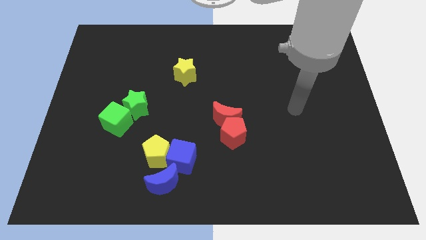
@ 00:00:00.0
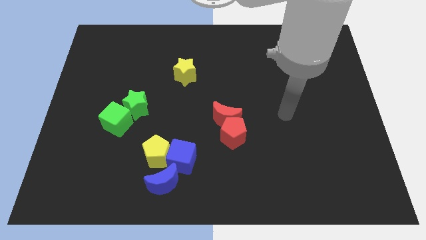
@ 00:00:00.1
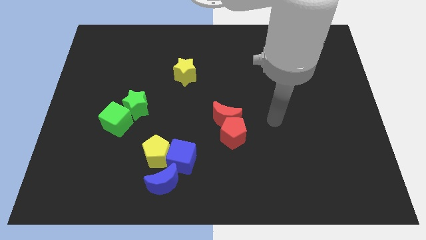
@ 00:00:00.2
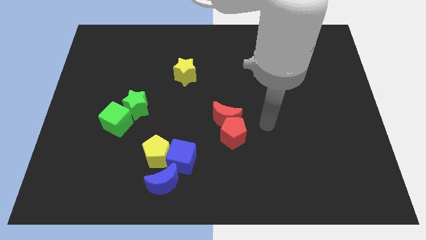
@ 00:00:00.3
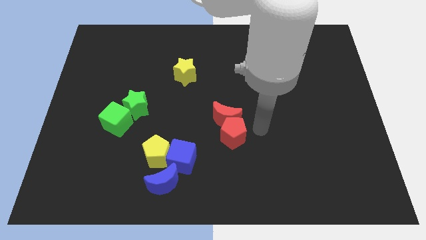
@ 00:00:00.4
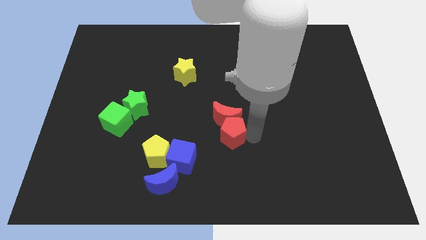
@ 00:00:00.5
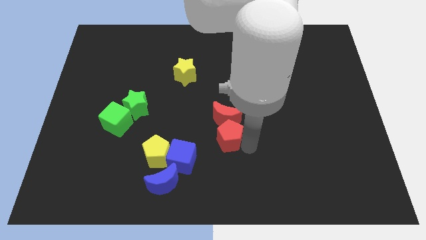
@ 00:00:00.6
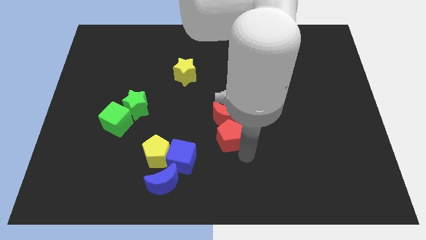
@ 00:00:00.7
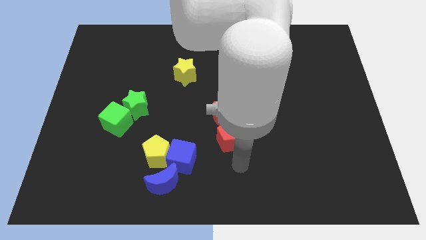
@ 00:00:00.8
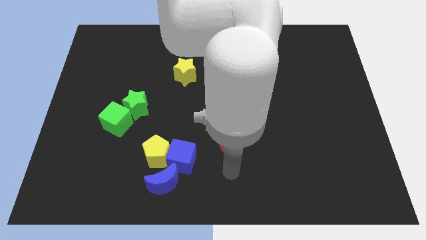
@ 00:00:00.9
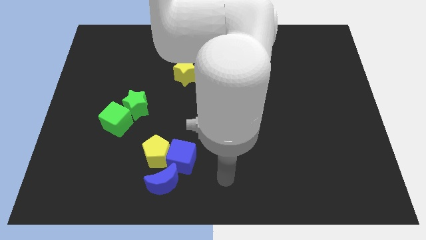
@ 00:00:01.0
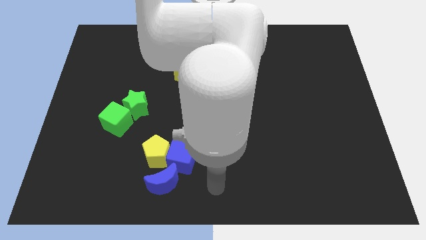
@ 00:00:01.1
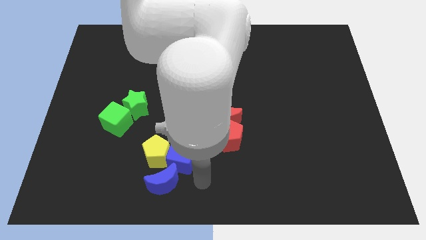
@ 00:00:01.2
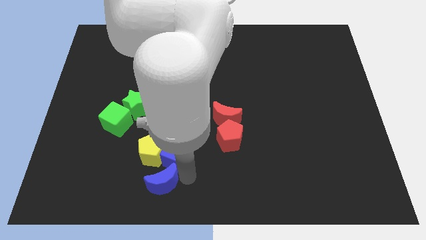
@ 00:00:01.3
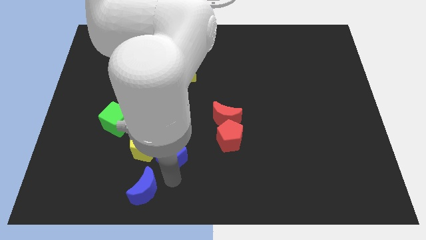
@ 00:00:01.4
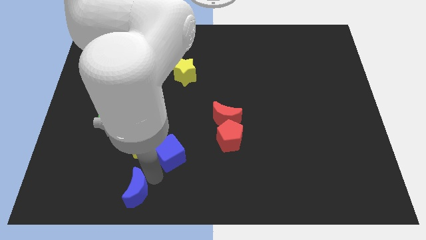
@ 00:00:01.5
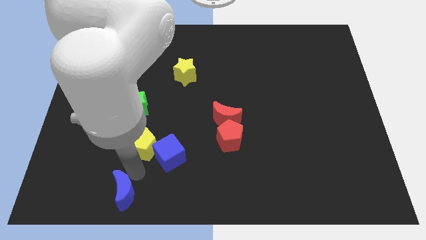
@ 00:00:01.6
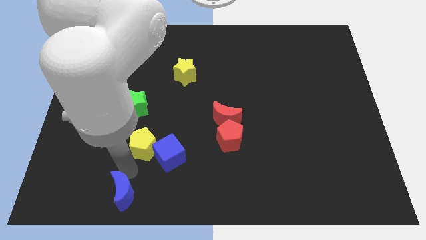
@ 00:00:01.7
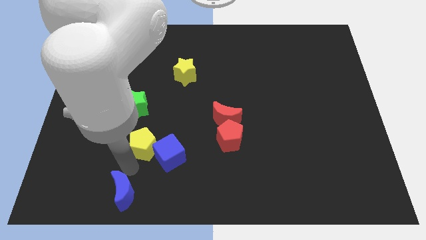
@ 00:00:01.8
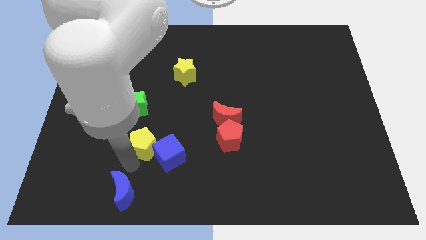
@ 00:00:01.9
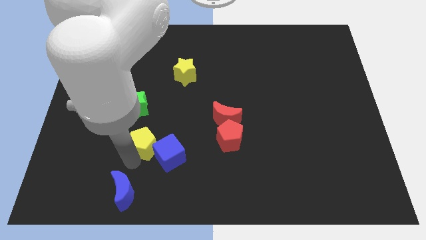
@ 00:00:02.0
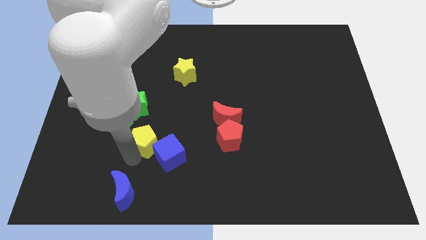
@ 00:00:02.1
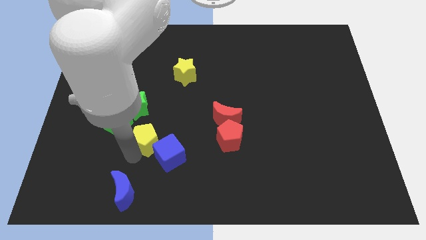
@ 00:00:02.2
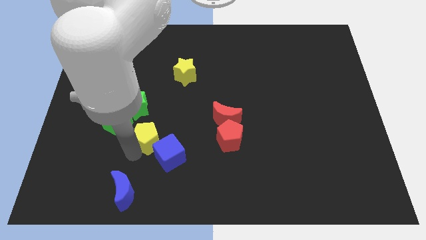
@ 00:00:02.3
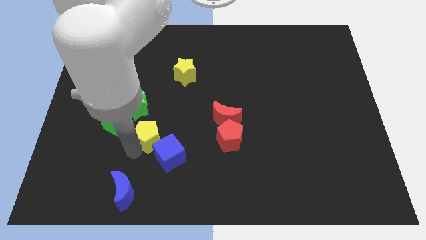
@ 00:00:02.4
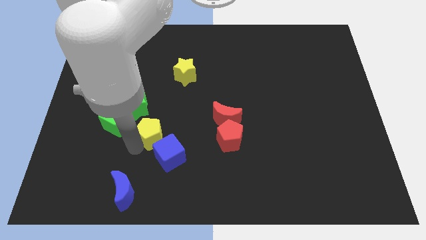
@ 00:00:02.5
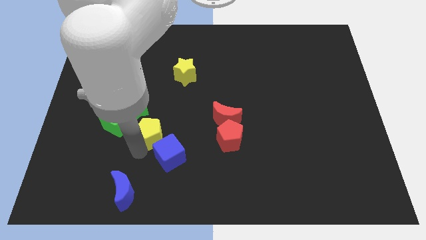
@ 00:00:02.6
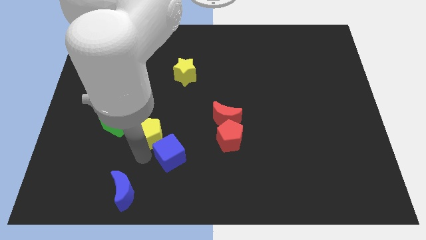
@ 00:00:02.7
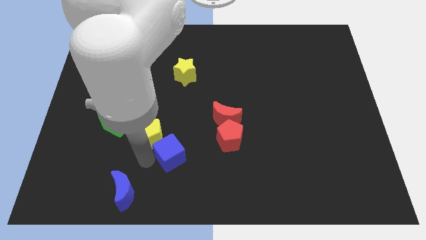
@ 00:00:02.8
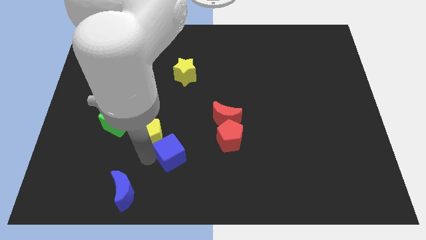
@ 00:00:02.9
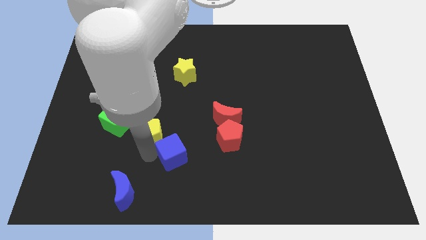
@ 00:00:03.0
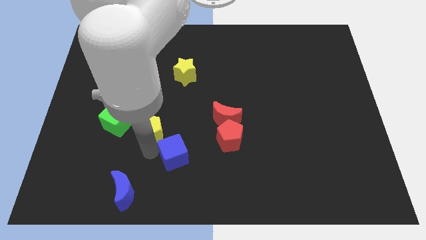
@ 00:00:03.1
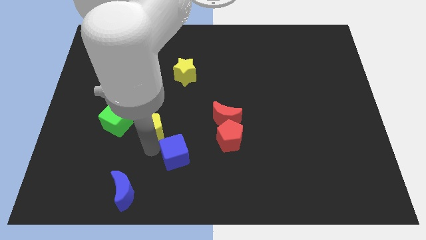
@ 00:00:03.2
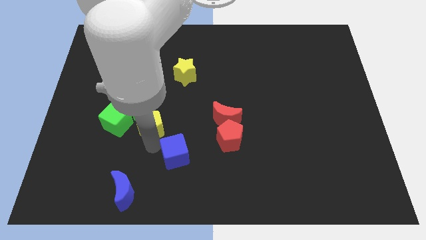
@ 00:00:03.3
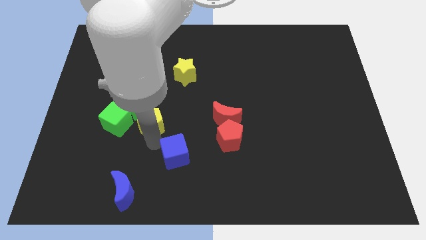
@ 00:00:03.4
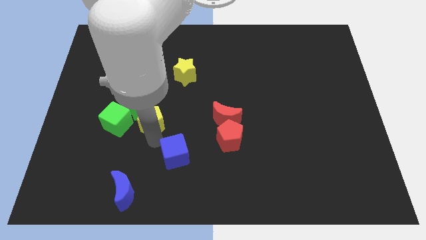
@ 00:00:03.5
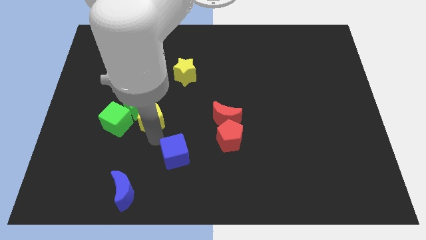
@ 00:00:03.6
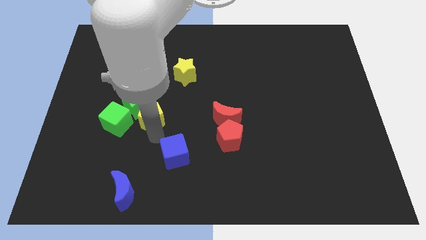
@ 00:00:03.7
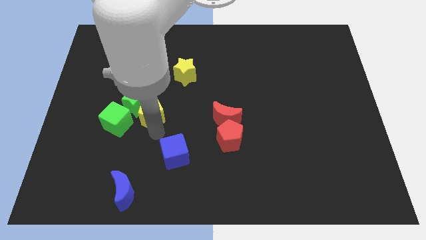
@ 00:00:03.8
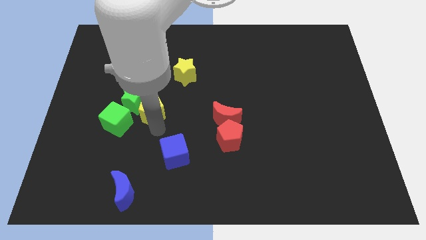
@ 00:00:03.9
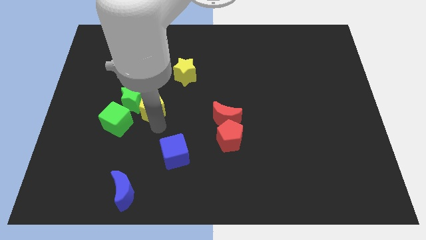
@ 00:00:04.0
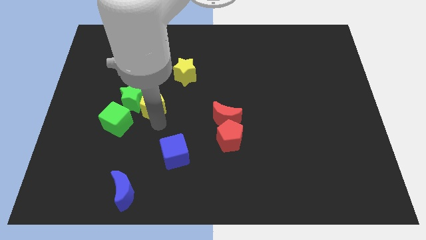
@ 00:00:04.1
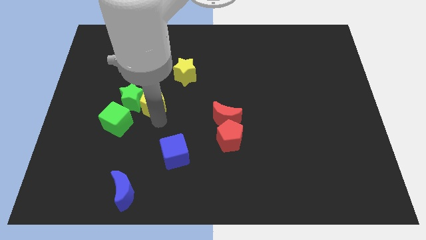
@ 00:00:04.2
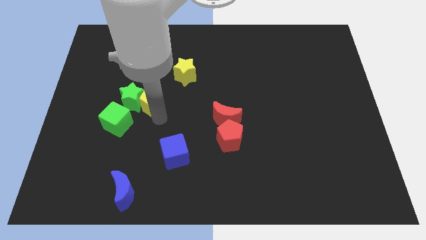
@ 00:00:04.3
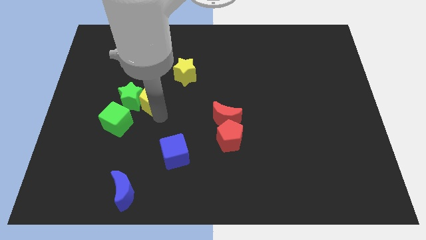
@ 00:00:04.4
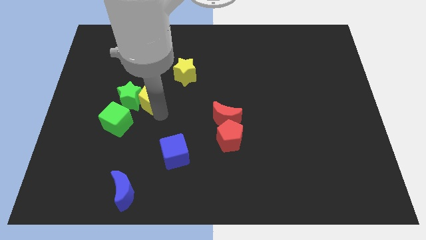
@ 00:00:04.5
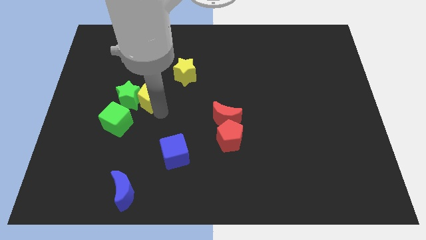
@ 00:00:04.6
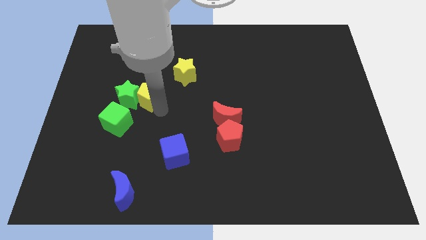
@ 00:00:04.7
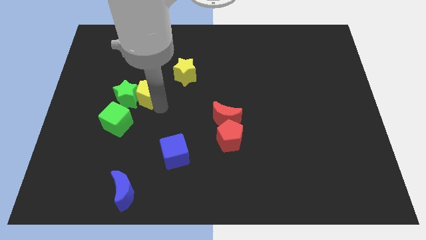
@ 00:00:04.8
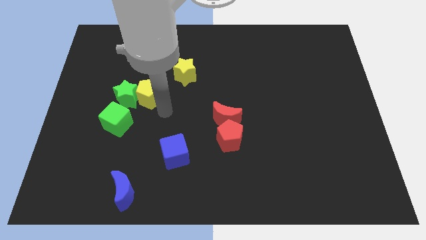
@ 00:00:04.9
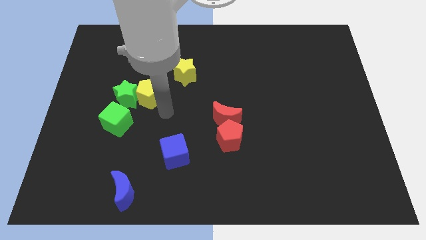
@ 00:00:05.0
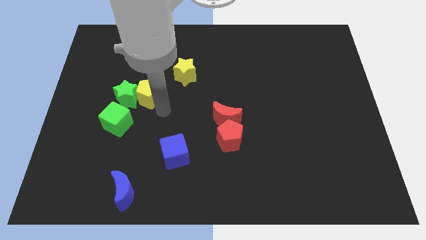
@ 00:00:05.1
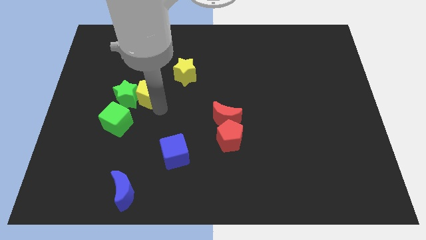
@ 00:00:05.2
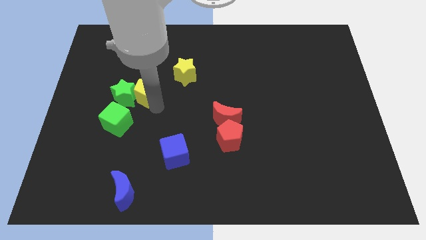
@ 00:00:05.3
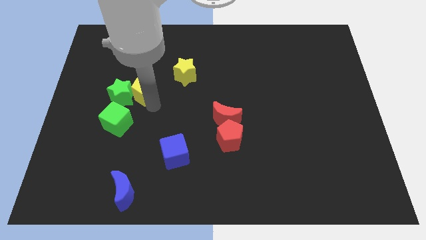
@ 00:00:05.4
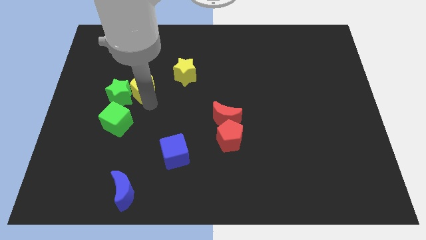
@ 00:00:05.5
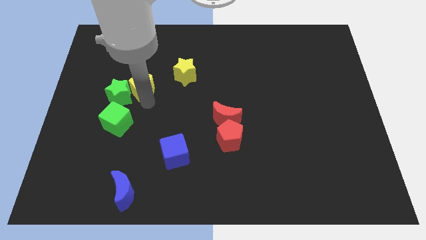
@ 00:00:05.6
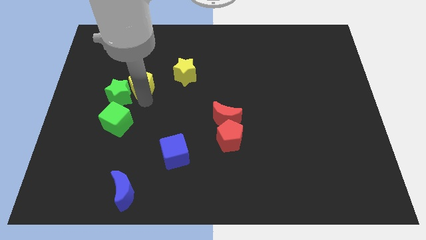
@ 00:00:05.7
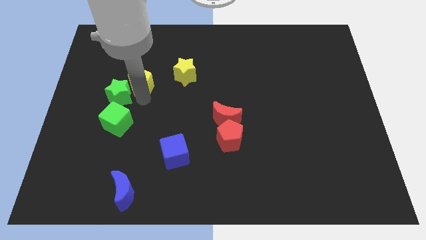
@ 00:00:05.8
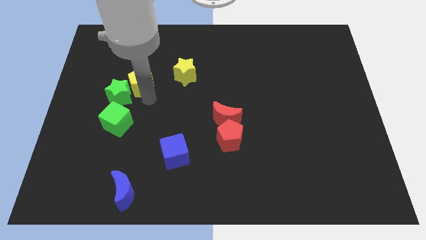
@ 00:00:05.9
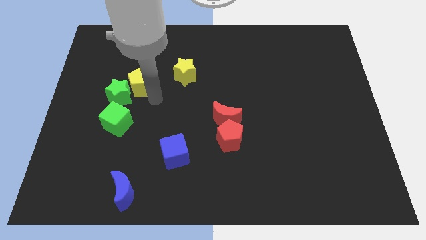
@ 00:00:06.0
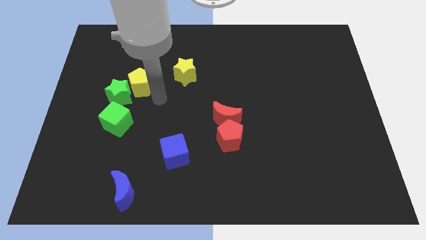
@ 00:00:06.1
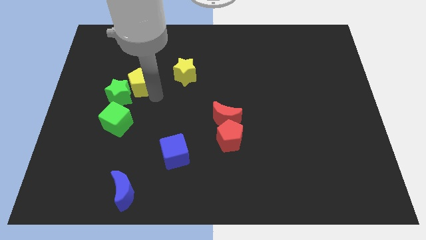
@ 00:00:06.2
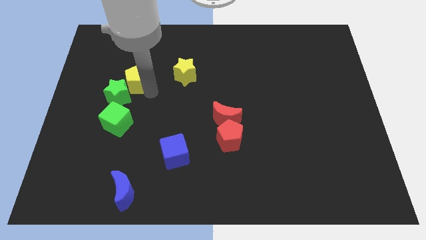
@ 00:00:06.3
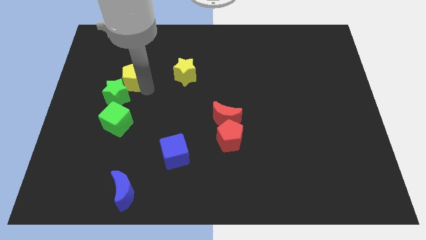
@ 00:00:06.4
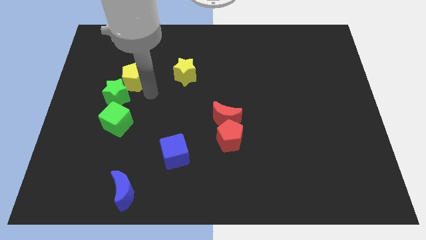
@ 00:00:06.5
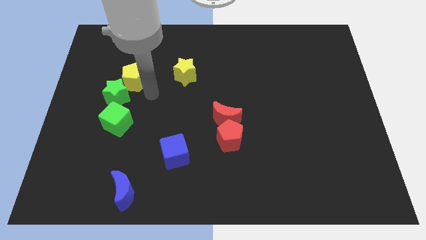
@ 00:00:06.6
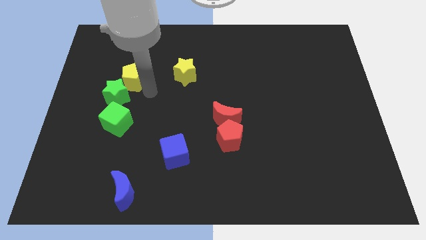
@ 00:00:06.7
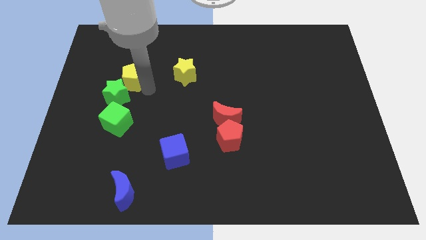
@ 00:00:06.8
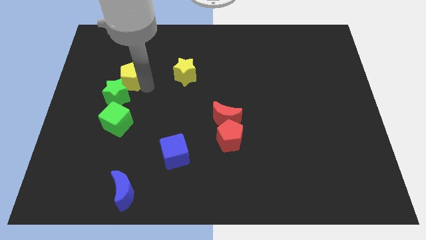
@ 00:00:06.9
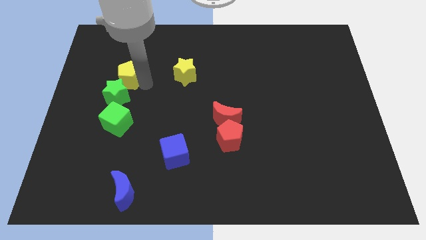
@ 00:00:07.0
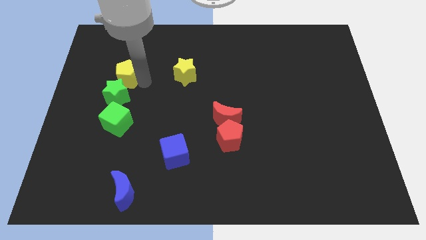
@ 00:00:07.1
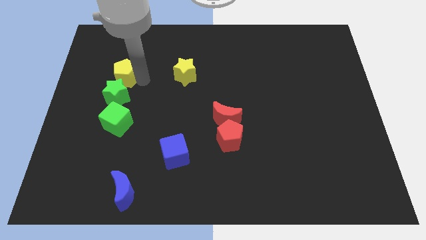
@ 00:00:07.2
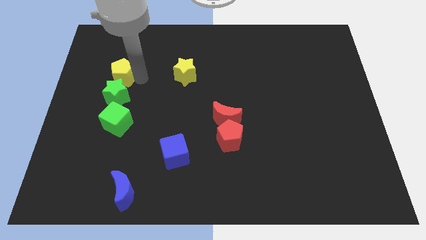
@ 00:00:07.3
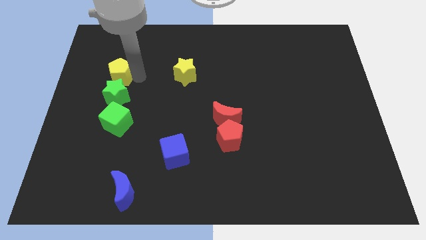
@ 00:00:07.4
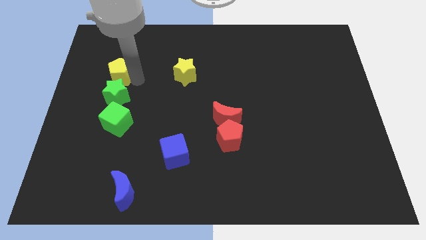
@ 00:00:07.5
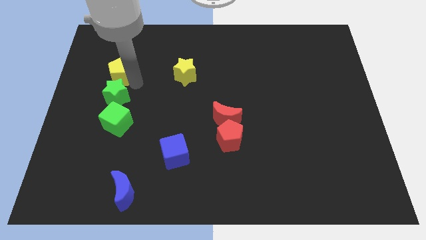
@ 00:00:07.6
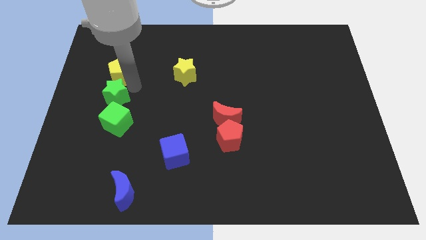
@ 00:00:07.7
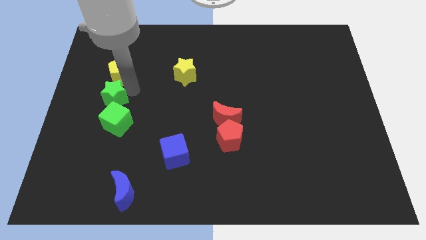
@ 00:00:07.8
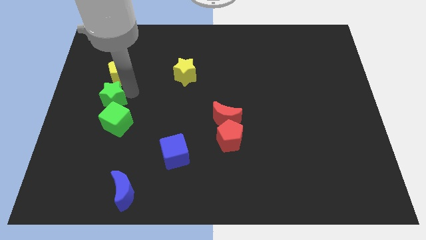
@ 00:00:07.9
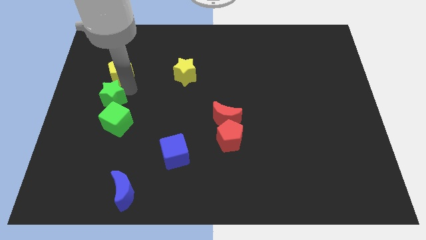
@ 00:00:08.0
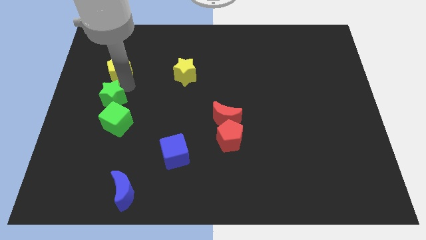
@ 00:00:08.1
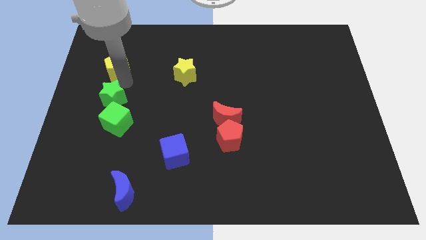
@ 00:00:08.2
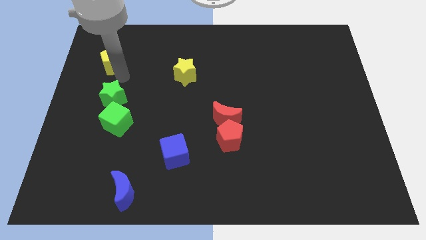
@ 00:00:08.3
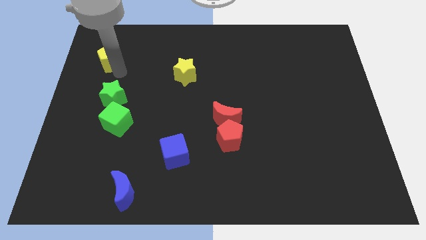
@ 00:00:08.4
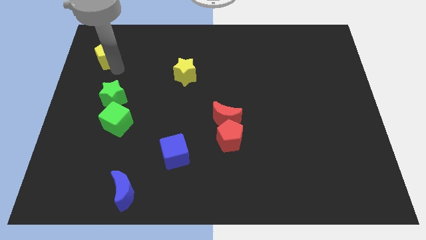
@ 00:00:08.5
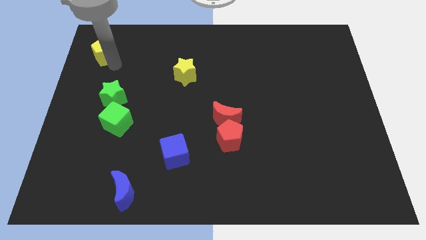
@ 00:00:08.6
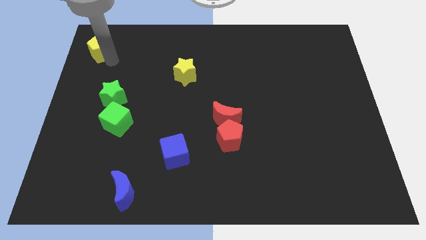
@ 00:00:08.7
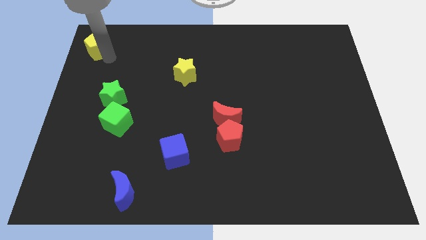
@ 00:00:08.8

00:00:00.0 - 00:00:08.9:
push the yellow pentagon to the top left
